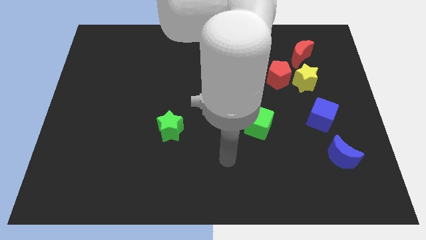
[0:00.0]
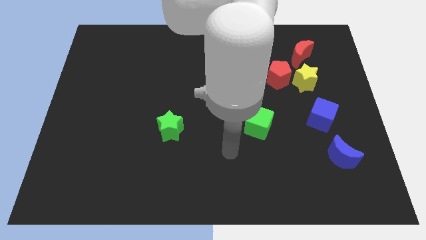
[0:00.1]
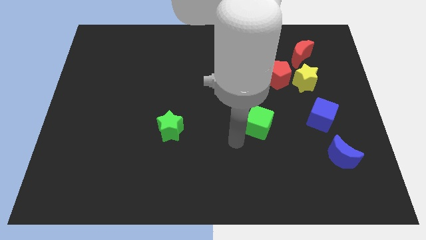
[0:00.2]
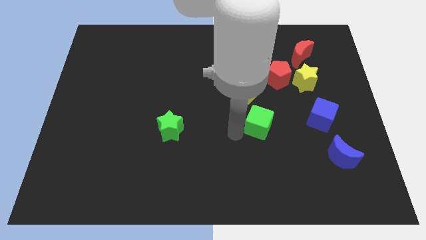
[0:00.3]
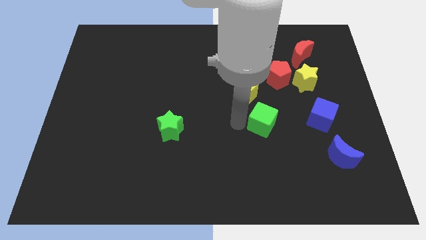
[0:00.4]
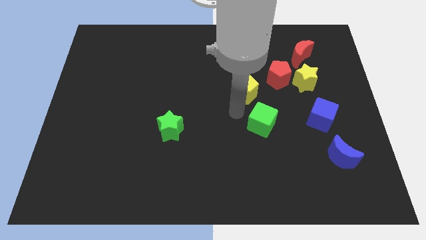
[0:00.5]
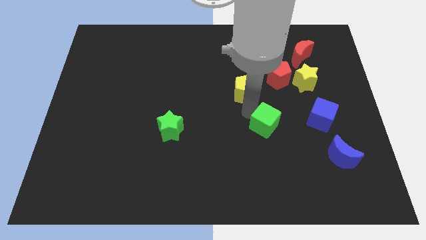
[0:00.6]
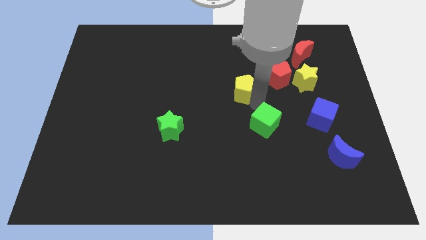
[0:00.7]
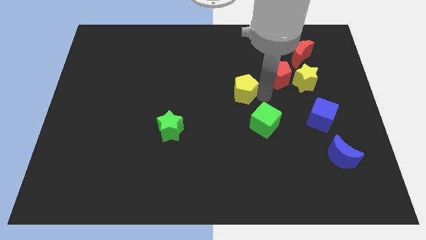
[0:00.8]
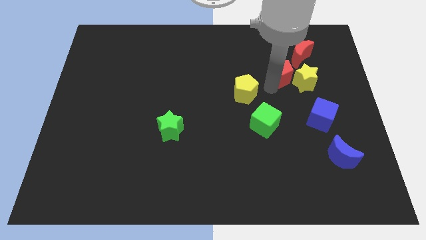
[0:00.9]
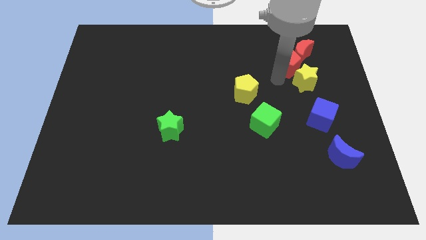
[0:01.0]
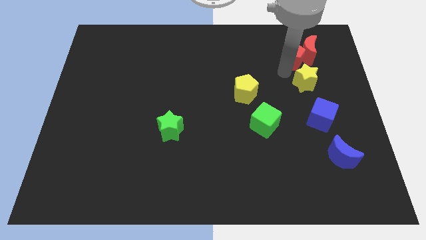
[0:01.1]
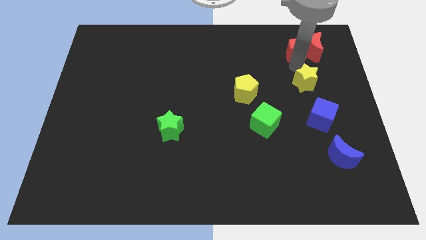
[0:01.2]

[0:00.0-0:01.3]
separate the yellow star from the red pentagon and red moon

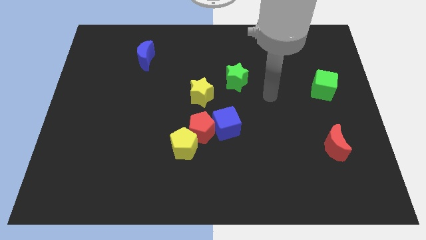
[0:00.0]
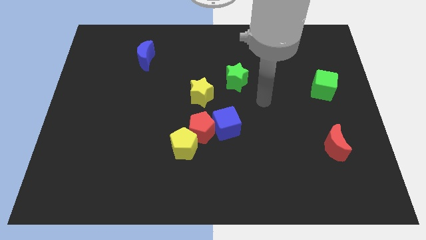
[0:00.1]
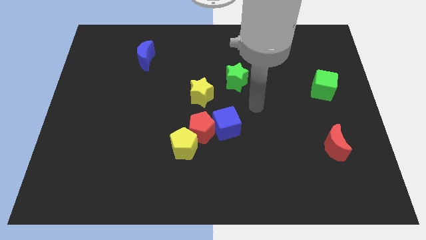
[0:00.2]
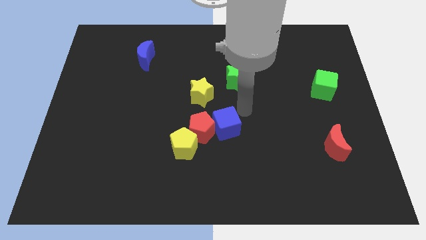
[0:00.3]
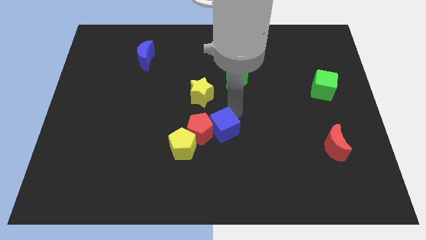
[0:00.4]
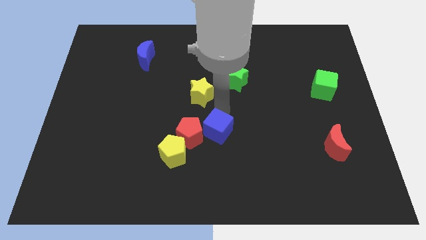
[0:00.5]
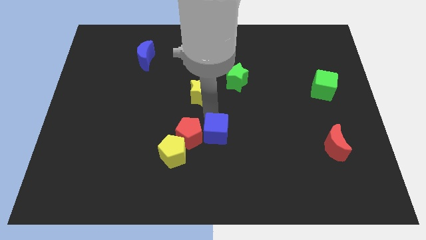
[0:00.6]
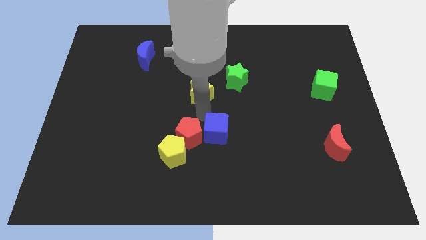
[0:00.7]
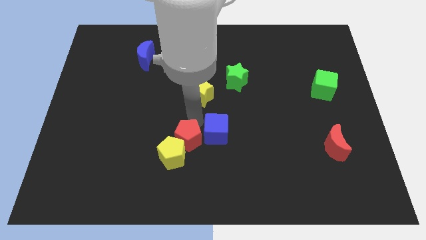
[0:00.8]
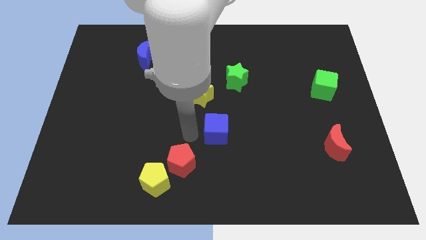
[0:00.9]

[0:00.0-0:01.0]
move the blue cube away from the red pentagon

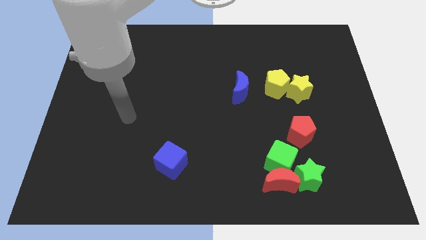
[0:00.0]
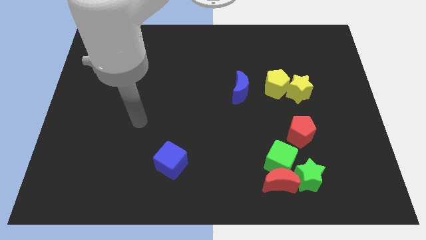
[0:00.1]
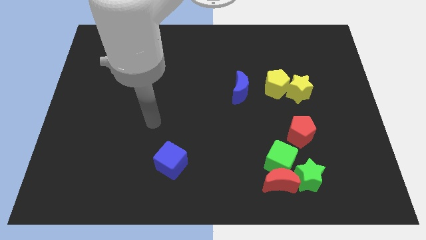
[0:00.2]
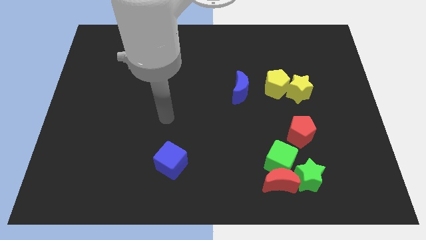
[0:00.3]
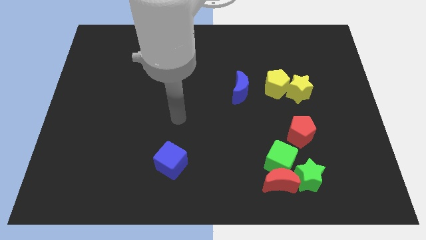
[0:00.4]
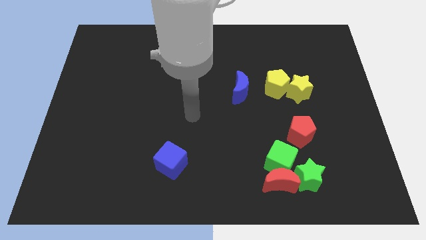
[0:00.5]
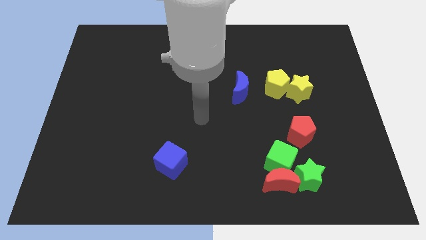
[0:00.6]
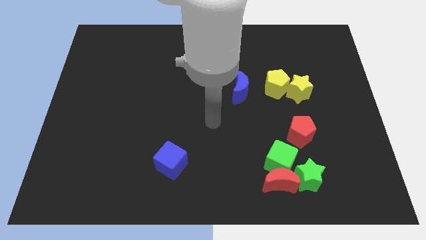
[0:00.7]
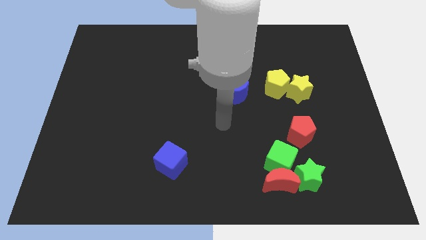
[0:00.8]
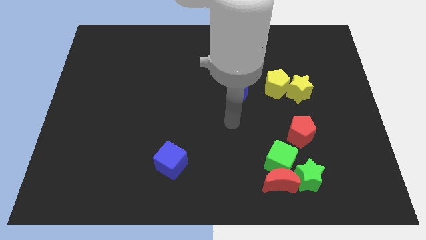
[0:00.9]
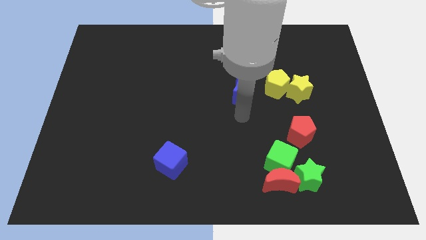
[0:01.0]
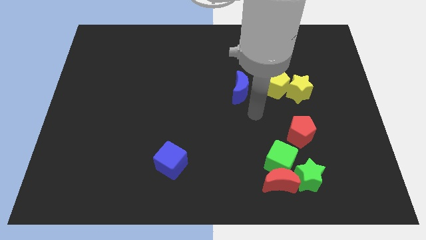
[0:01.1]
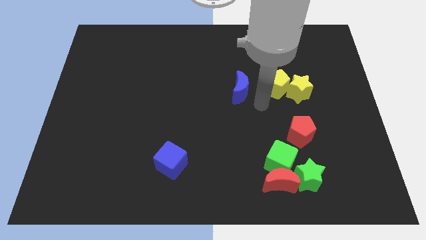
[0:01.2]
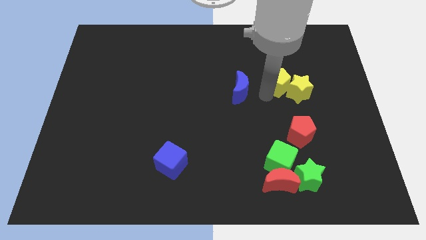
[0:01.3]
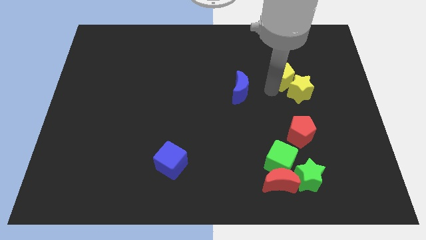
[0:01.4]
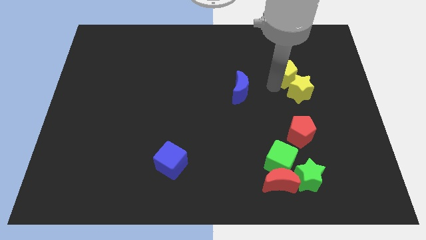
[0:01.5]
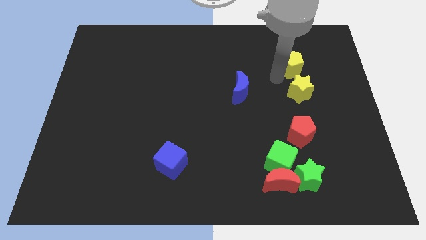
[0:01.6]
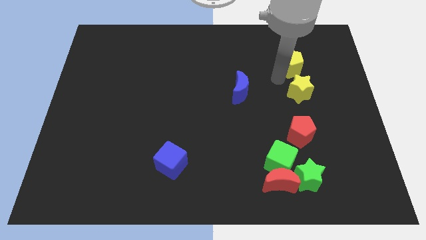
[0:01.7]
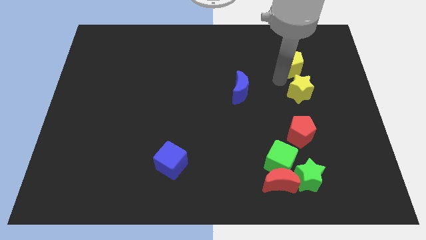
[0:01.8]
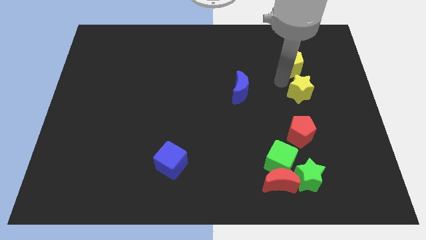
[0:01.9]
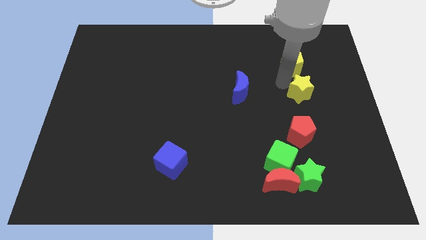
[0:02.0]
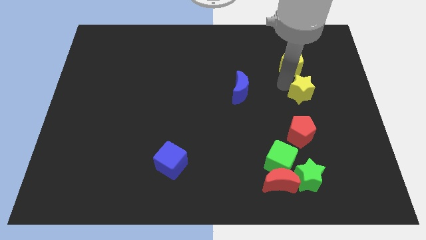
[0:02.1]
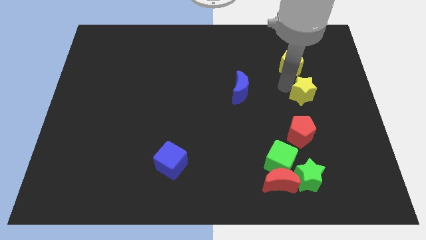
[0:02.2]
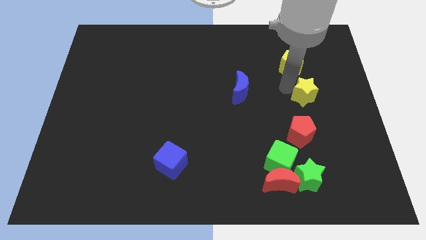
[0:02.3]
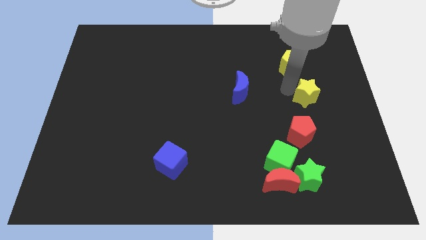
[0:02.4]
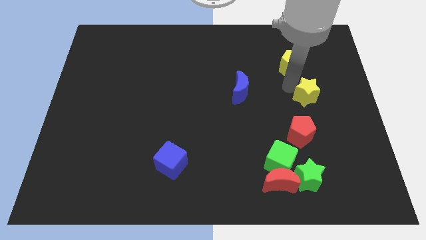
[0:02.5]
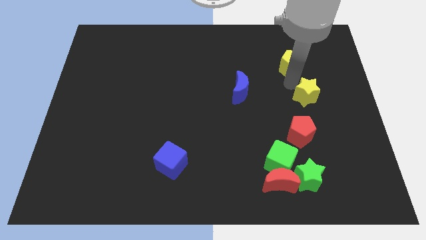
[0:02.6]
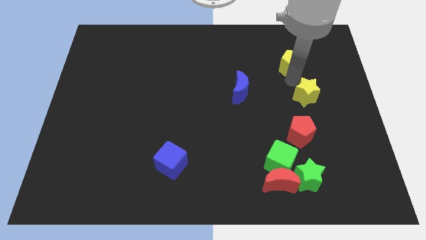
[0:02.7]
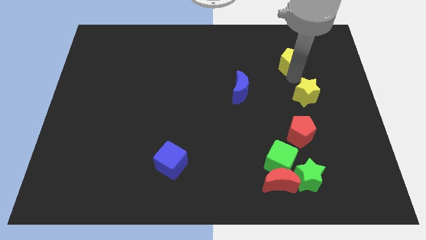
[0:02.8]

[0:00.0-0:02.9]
move the yellow star away from the yellow pentagon

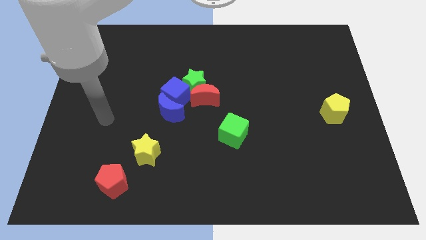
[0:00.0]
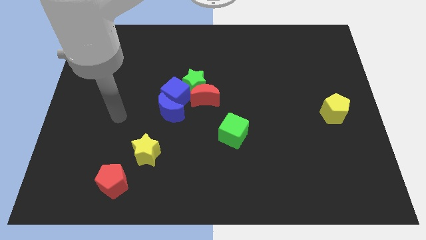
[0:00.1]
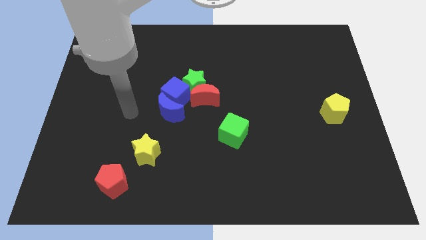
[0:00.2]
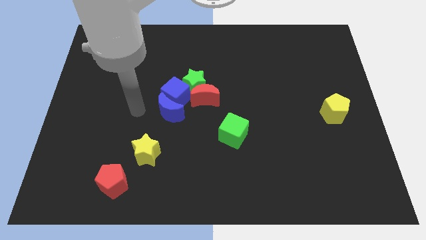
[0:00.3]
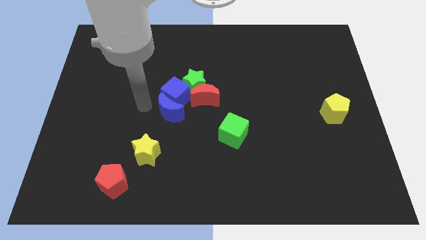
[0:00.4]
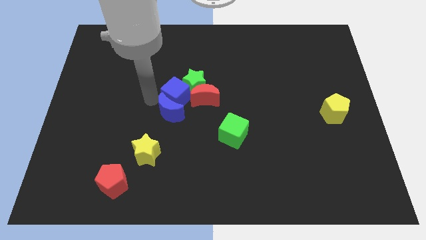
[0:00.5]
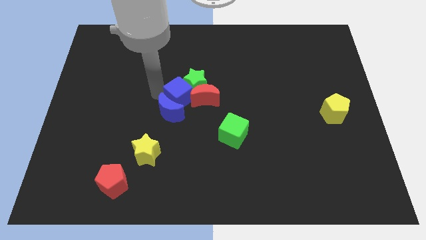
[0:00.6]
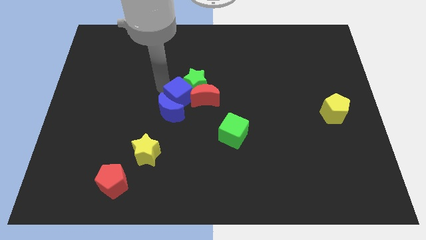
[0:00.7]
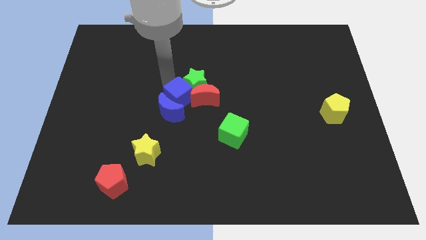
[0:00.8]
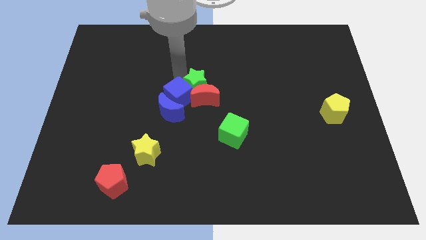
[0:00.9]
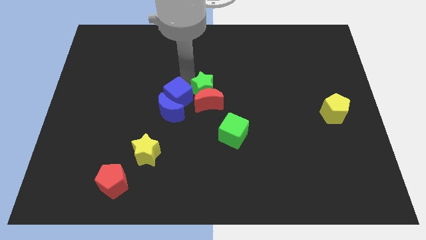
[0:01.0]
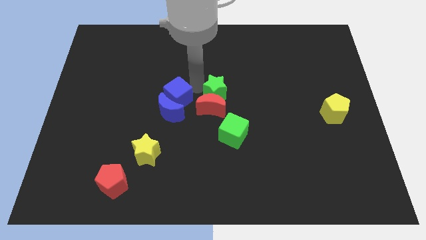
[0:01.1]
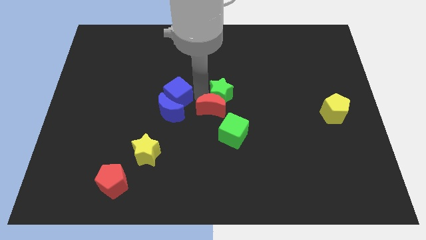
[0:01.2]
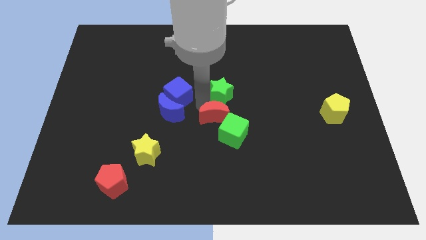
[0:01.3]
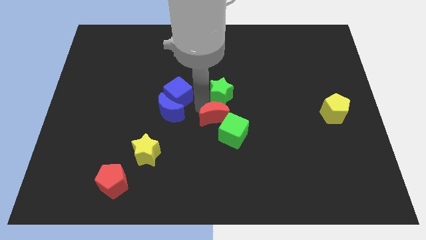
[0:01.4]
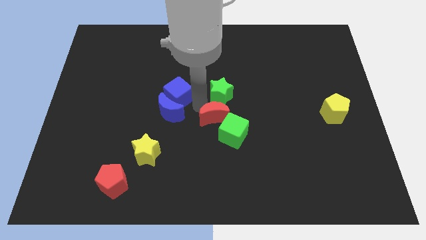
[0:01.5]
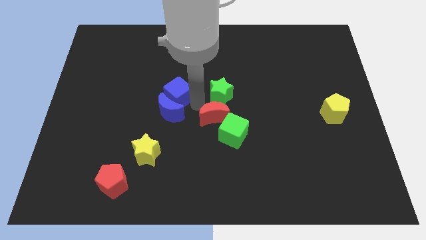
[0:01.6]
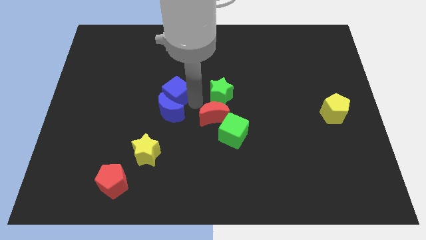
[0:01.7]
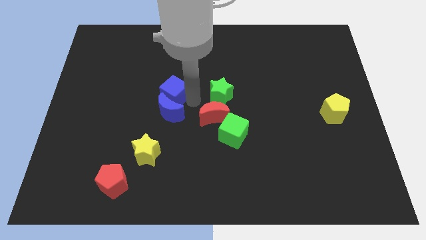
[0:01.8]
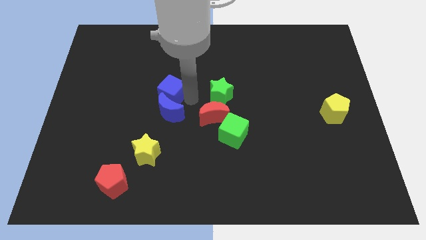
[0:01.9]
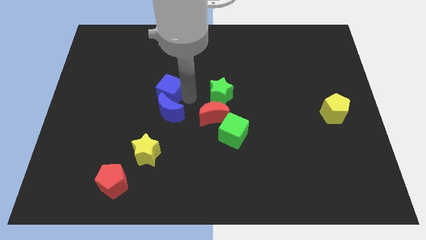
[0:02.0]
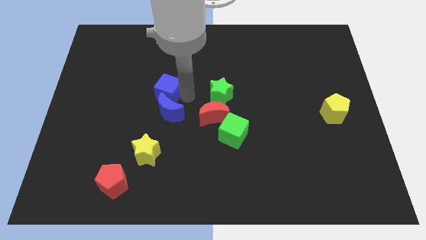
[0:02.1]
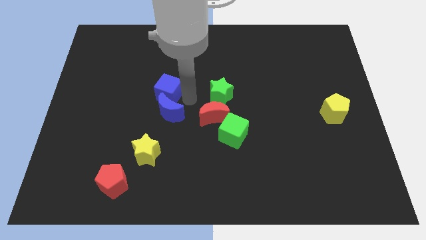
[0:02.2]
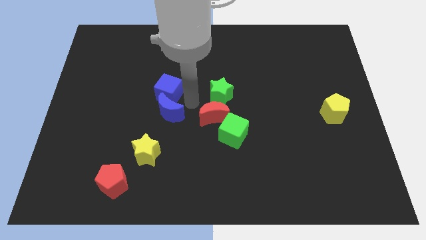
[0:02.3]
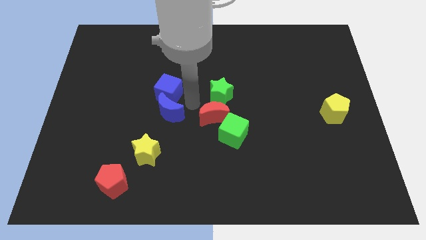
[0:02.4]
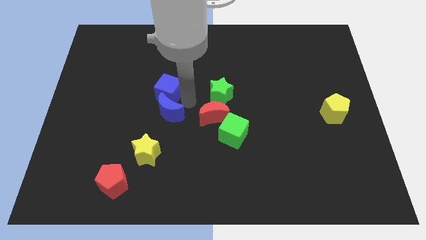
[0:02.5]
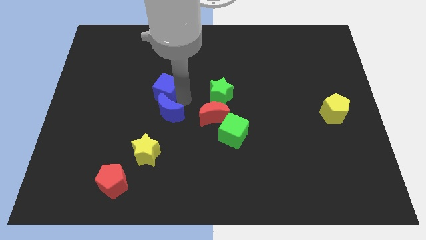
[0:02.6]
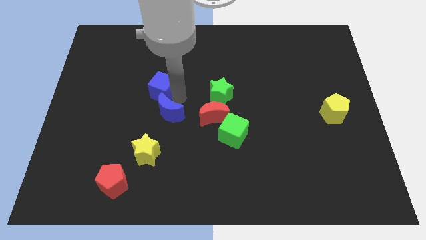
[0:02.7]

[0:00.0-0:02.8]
move the blue cube away from the blue moon, green star, and red moon

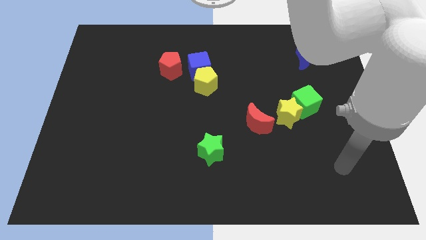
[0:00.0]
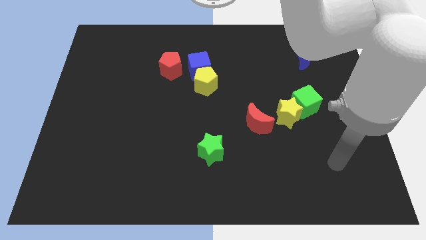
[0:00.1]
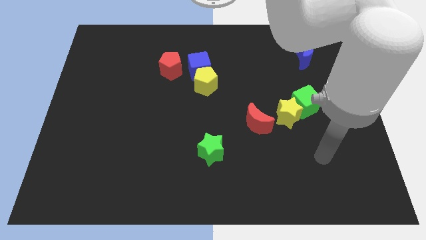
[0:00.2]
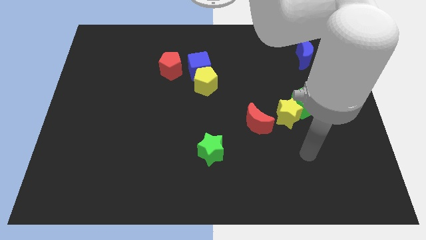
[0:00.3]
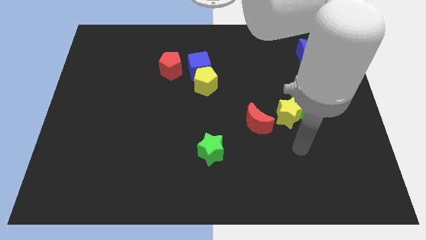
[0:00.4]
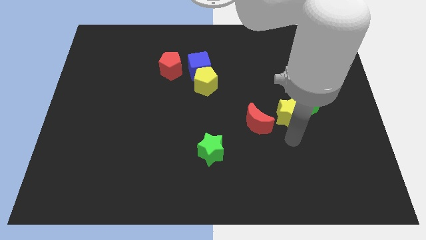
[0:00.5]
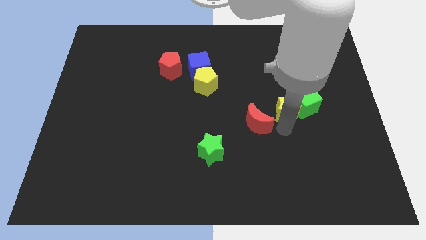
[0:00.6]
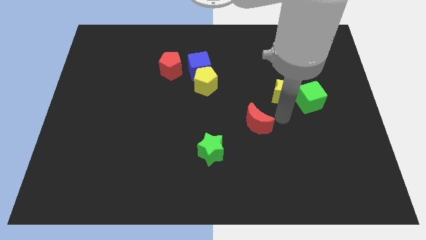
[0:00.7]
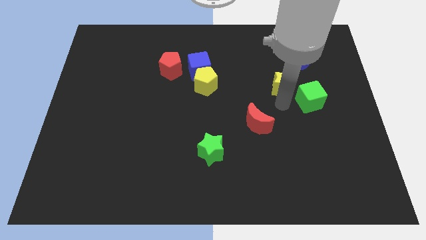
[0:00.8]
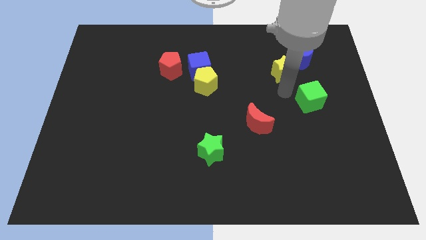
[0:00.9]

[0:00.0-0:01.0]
separate the green cube from the yellow star

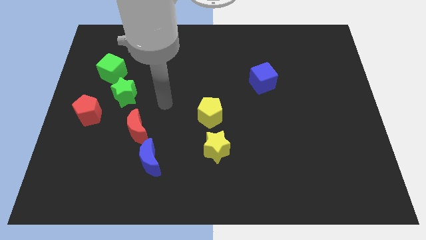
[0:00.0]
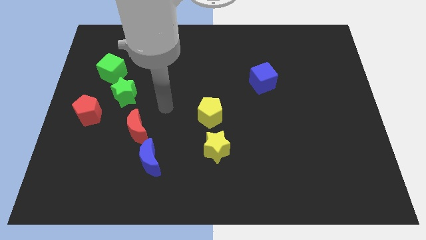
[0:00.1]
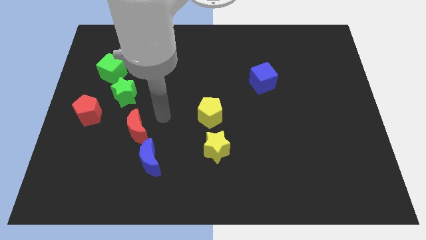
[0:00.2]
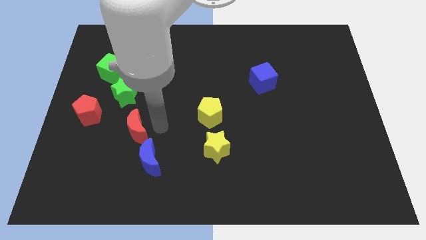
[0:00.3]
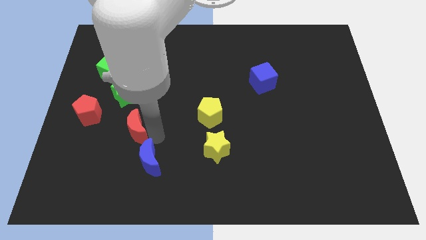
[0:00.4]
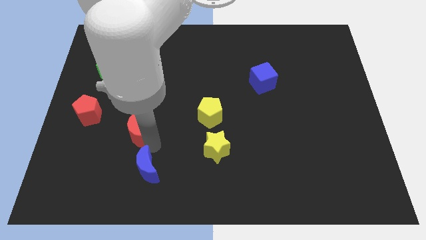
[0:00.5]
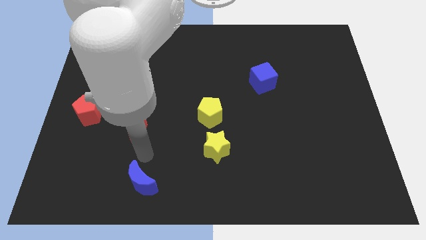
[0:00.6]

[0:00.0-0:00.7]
pull the red moon apart from the blue moon
